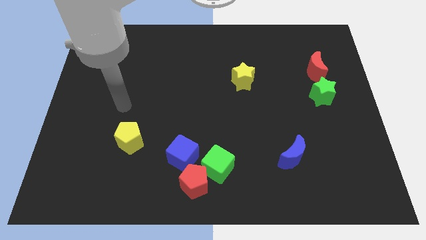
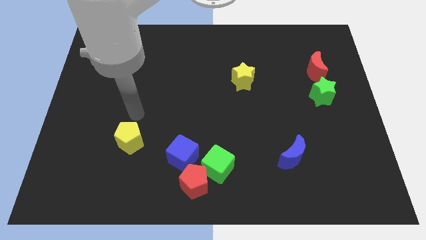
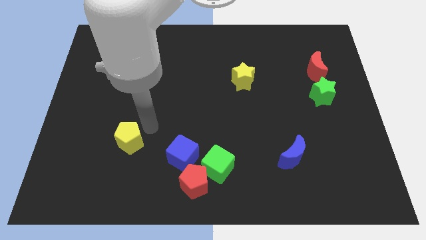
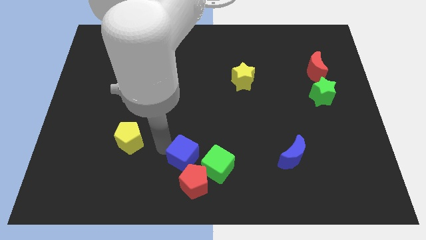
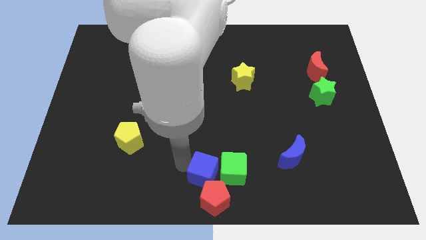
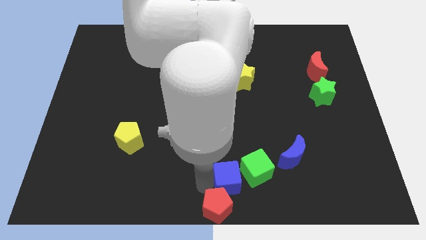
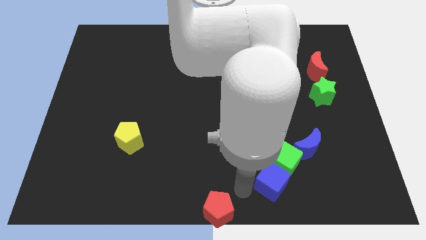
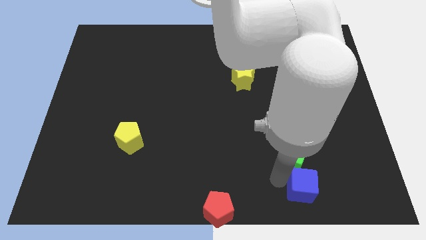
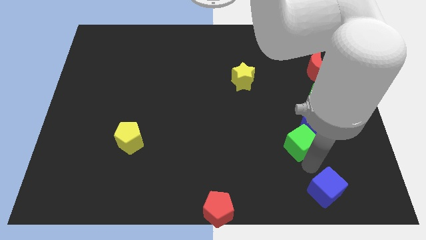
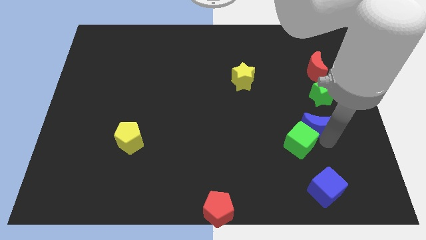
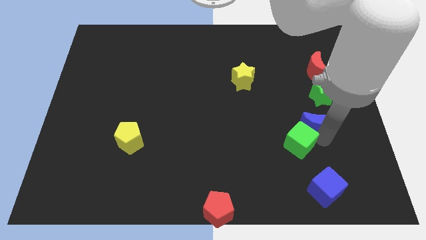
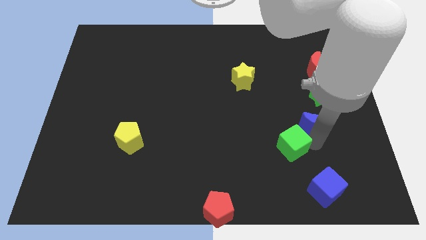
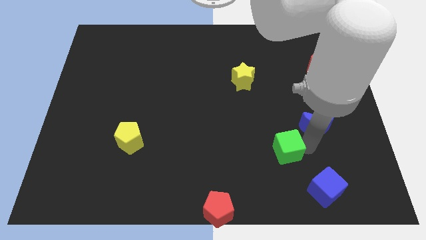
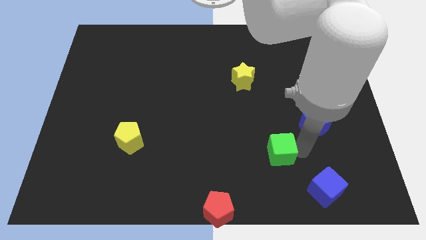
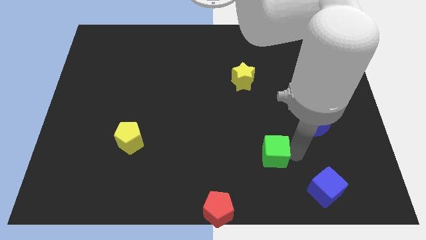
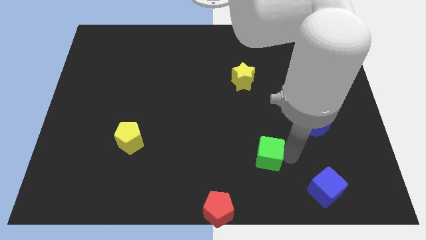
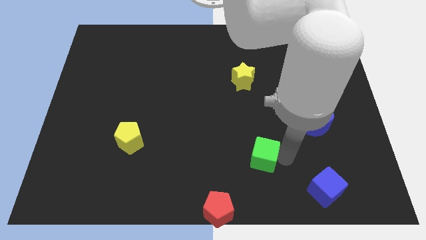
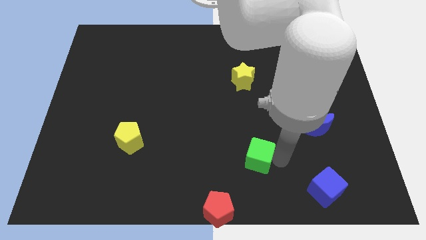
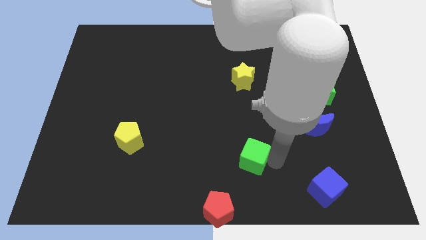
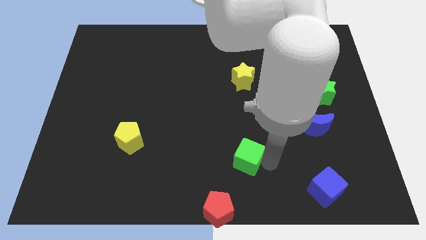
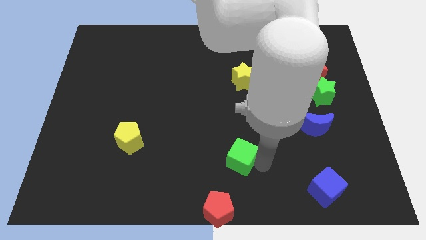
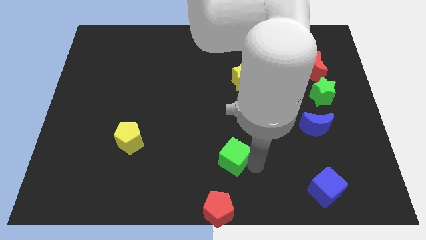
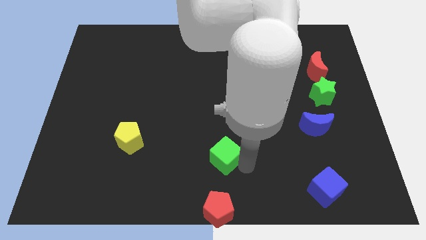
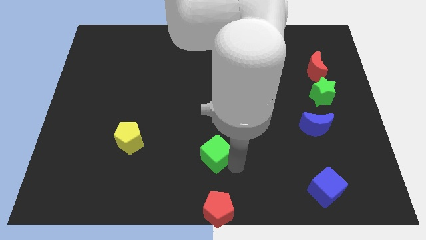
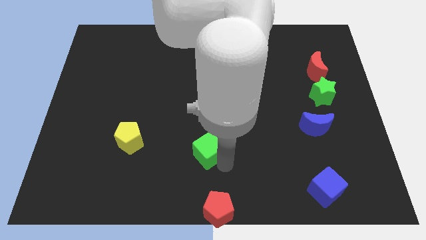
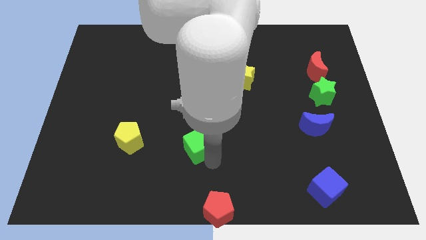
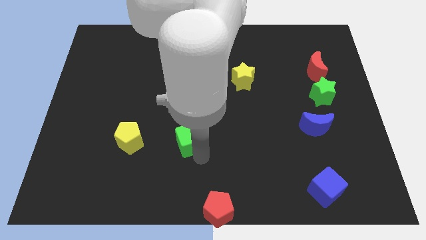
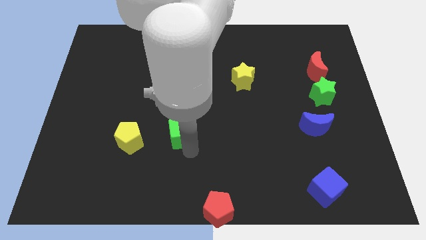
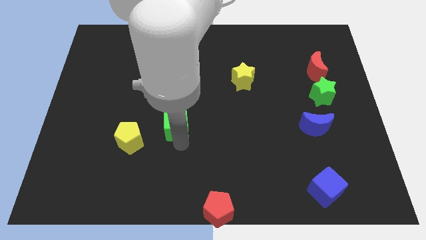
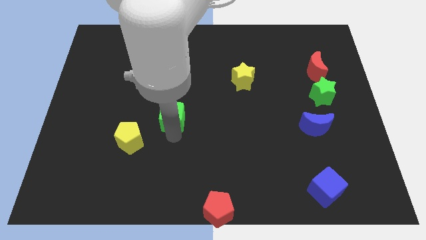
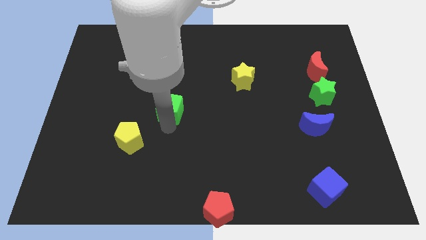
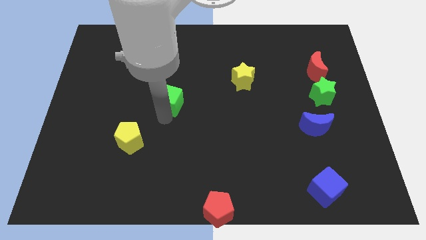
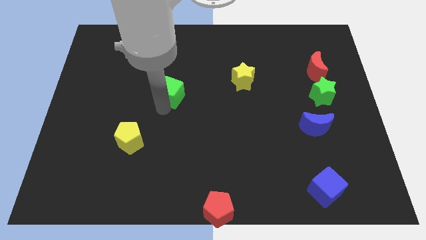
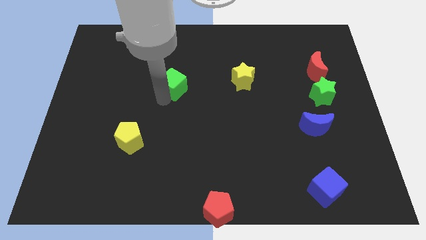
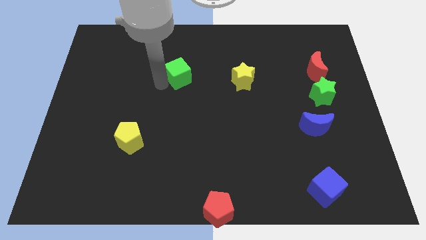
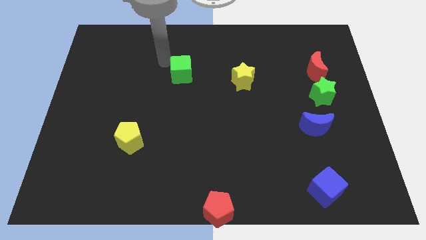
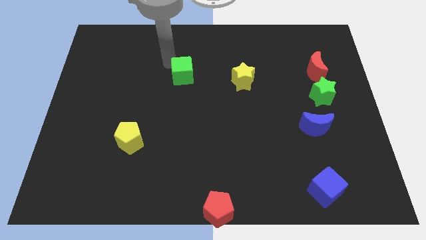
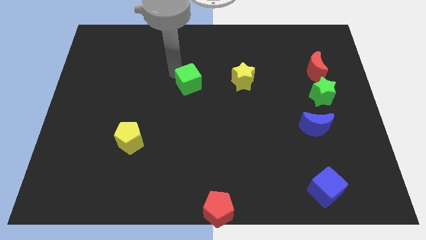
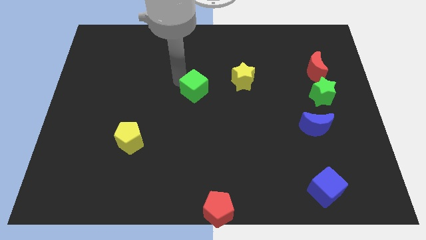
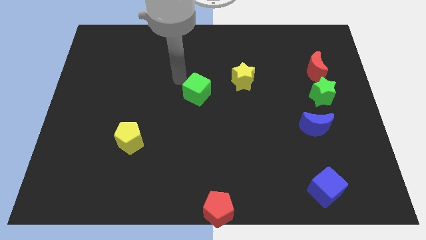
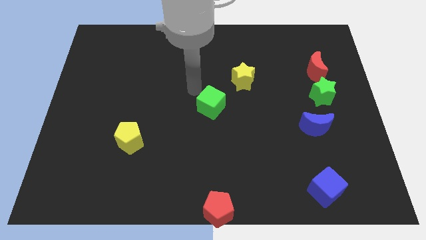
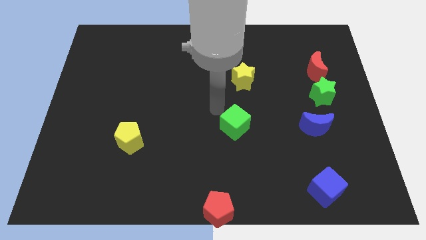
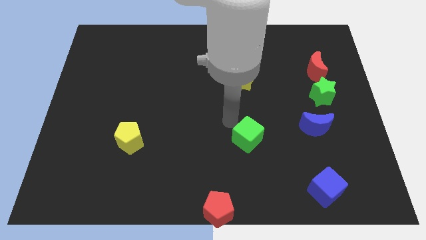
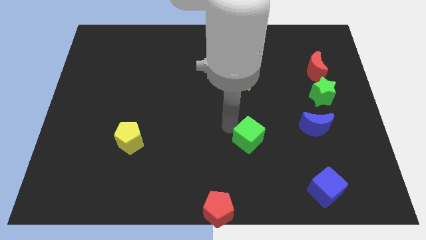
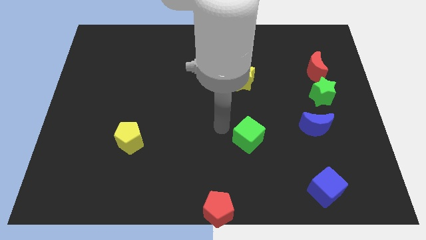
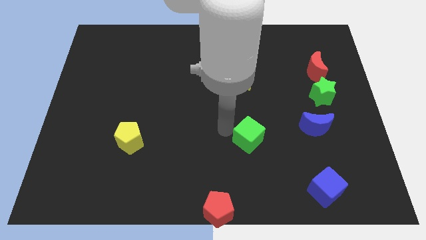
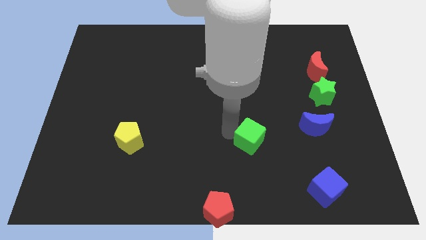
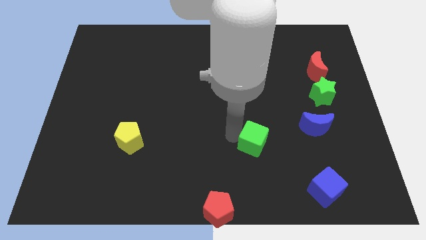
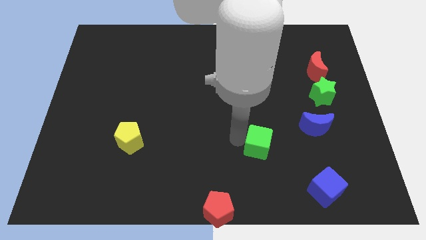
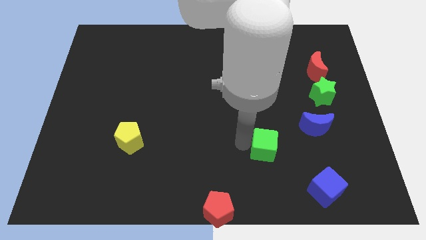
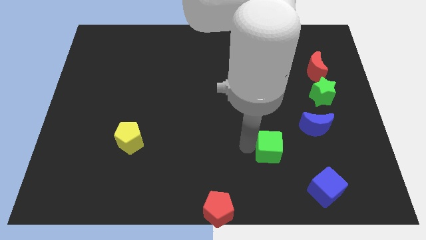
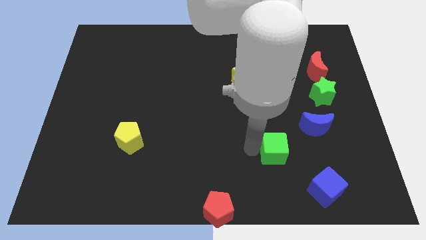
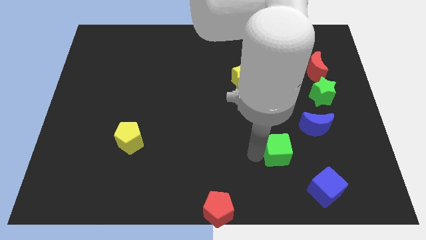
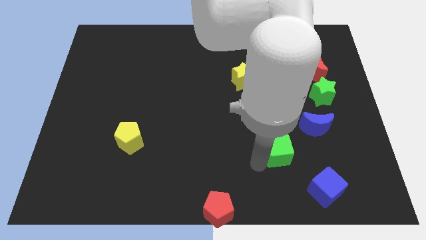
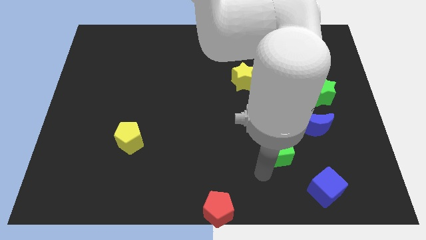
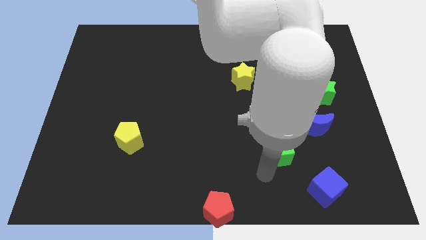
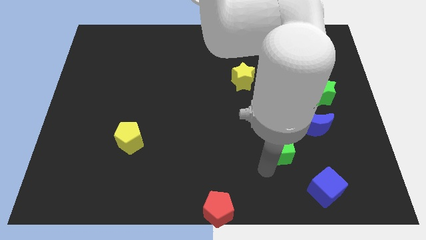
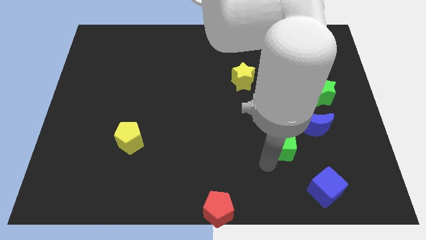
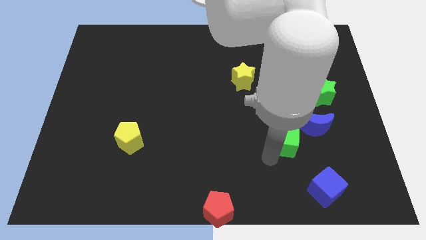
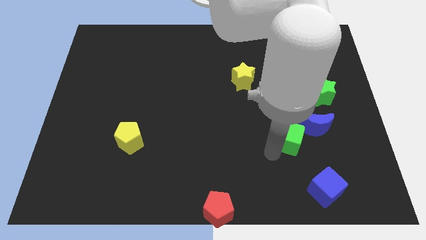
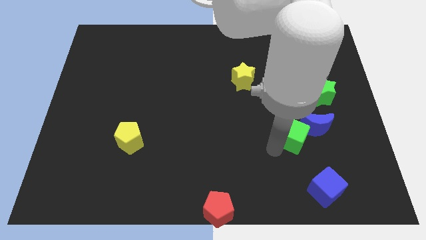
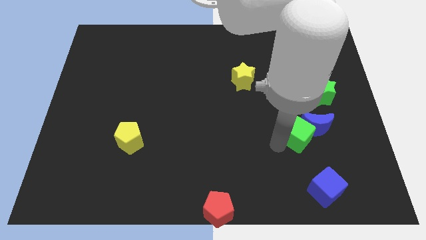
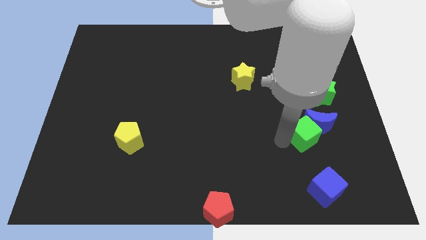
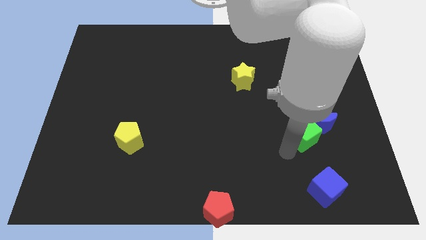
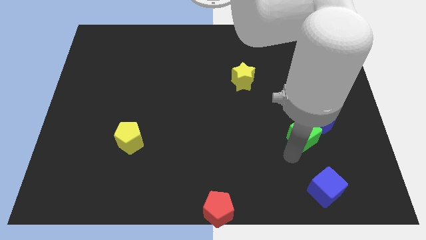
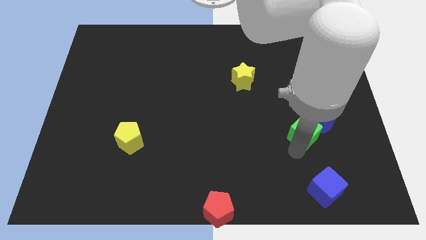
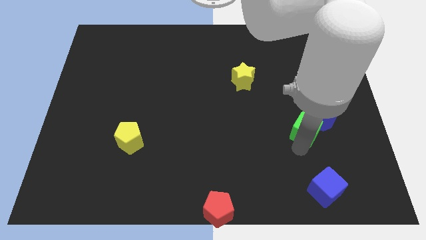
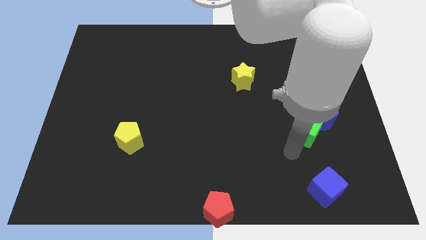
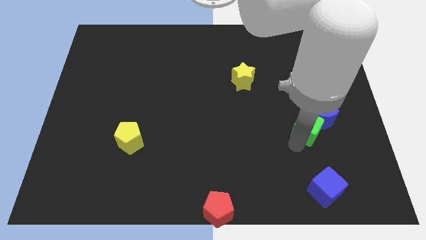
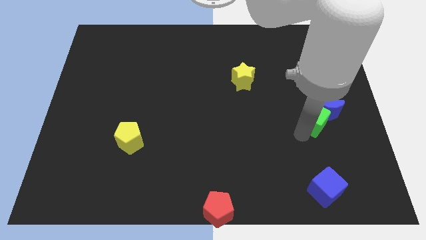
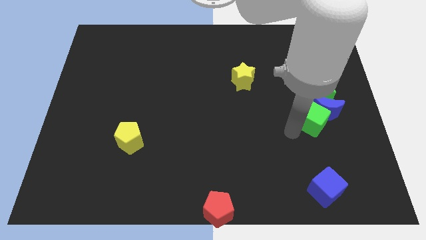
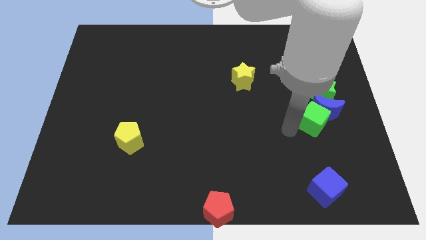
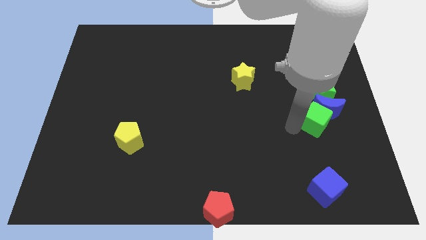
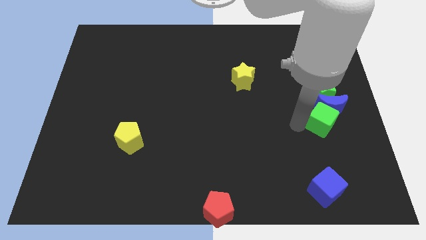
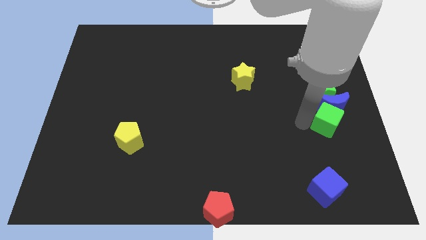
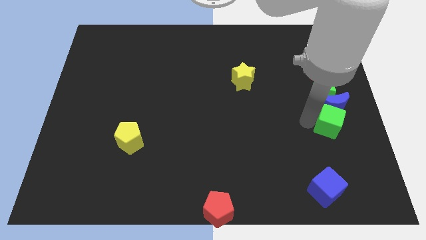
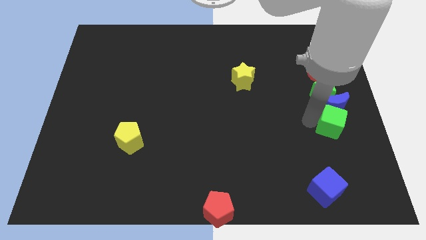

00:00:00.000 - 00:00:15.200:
move the green cube to the right side
